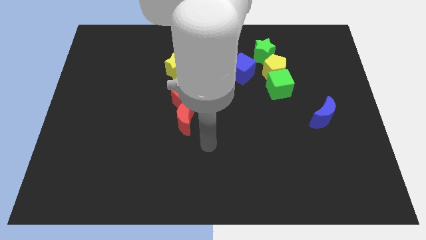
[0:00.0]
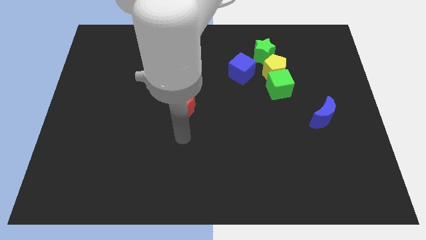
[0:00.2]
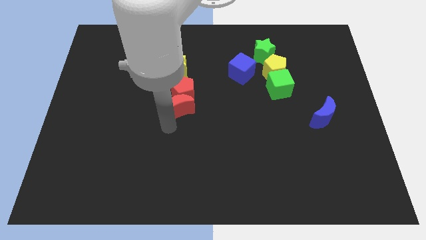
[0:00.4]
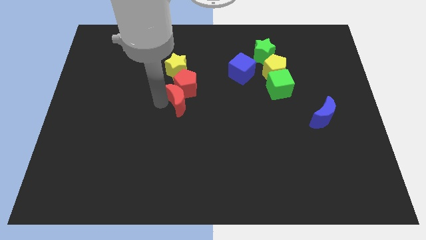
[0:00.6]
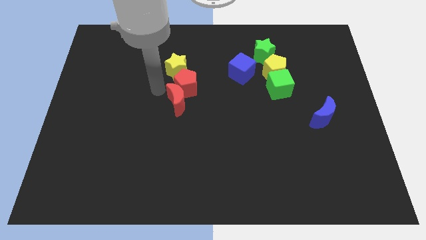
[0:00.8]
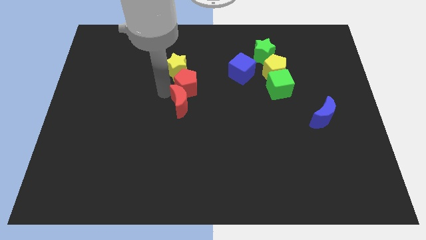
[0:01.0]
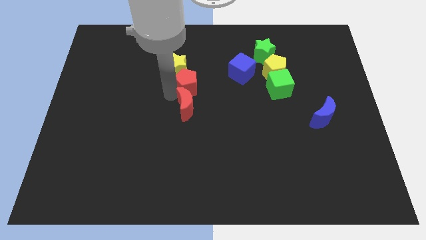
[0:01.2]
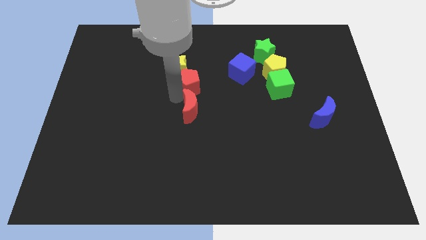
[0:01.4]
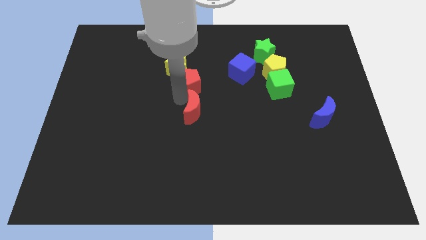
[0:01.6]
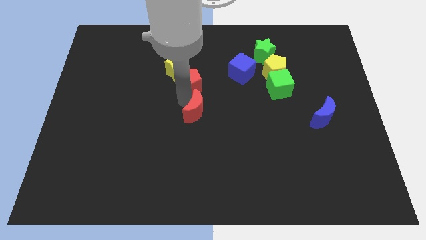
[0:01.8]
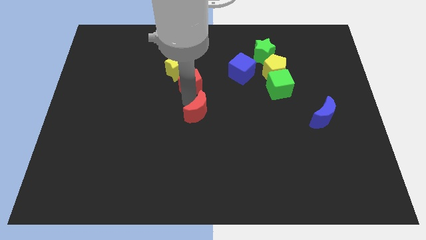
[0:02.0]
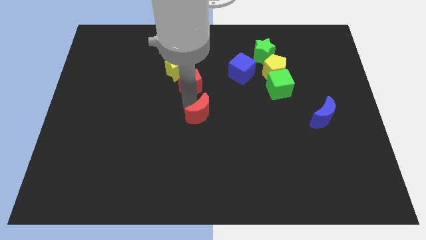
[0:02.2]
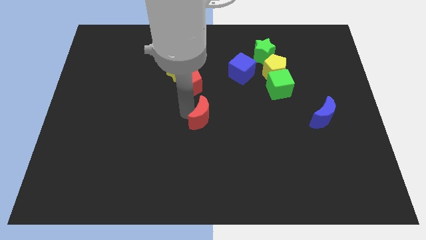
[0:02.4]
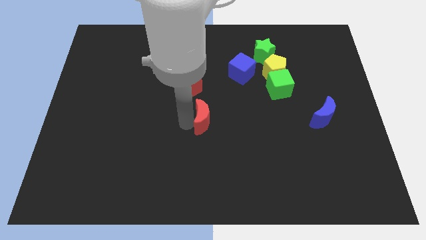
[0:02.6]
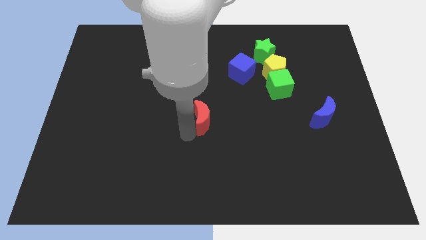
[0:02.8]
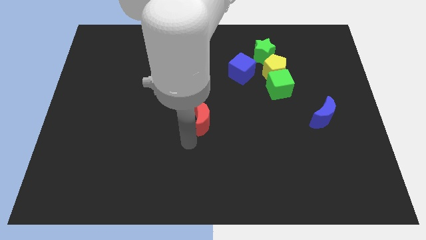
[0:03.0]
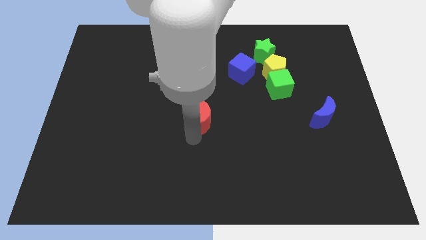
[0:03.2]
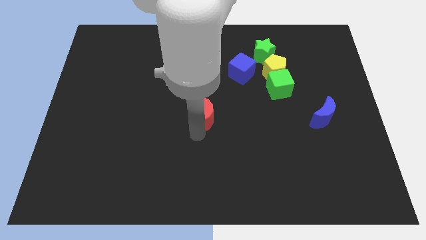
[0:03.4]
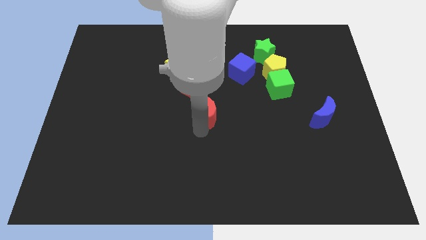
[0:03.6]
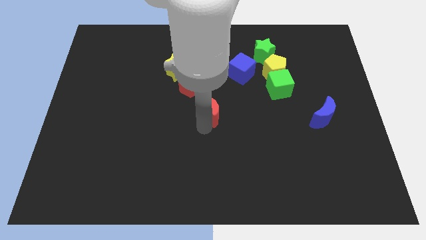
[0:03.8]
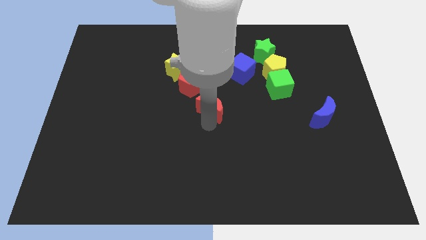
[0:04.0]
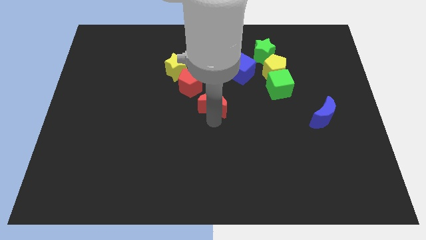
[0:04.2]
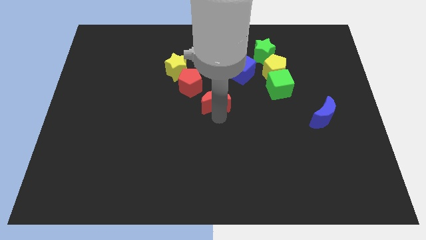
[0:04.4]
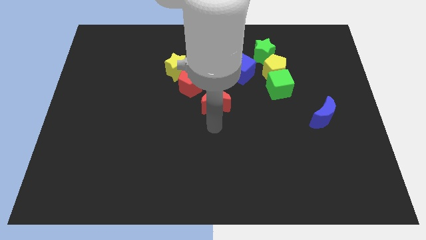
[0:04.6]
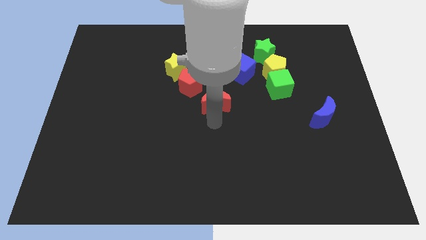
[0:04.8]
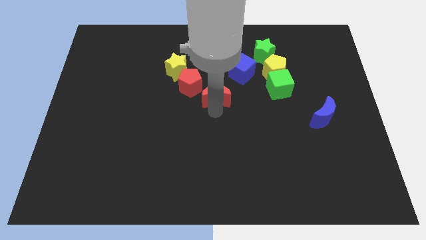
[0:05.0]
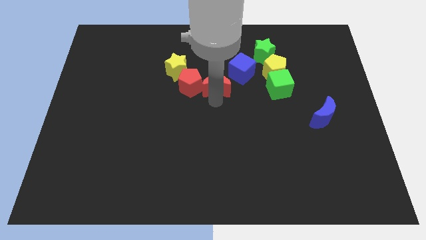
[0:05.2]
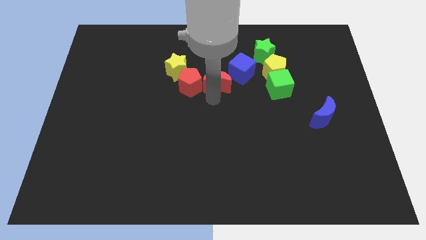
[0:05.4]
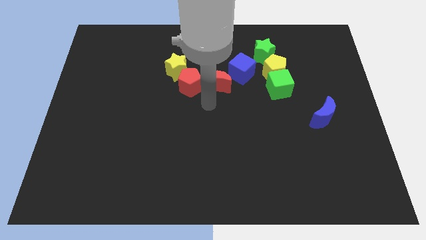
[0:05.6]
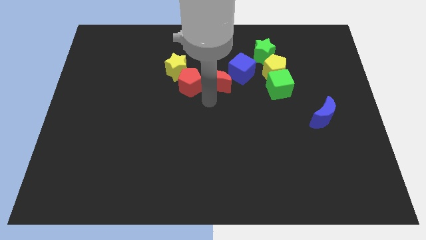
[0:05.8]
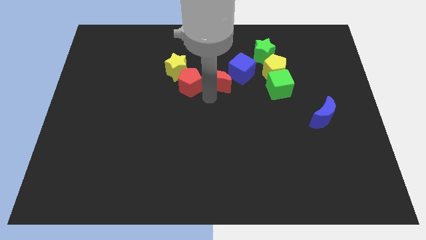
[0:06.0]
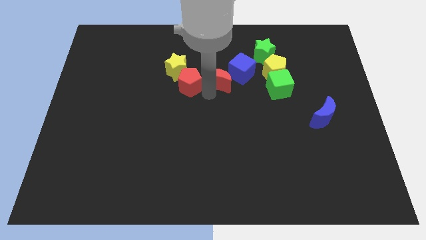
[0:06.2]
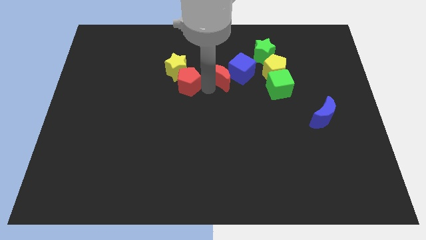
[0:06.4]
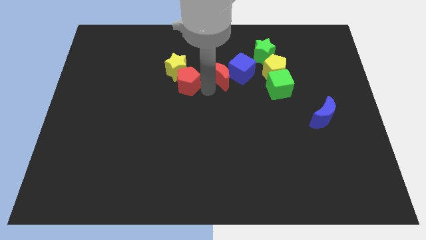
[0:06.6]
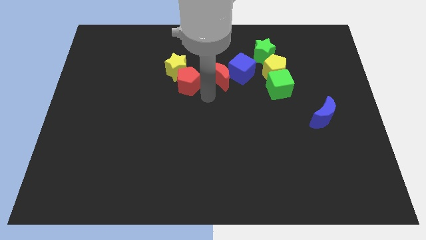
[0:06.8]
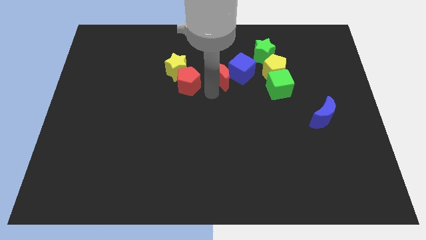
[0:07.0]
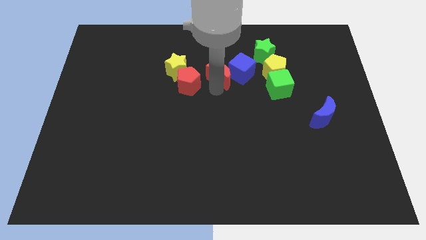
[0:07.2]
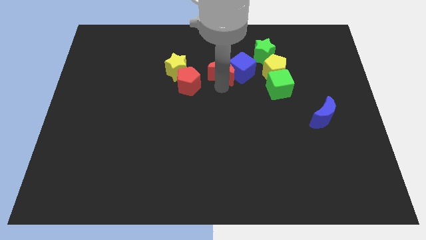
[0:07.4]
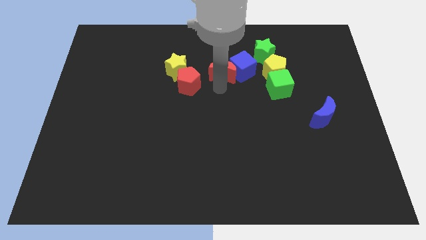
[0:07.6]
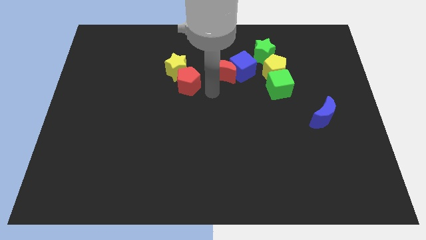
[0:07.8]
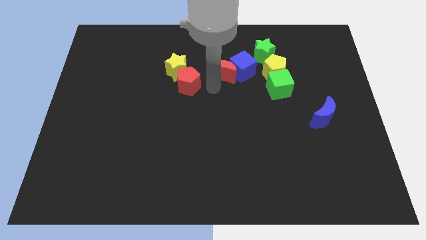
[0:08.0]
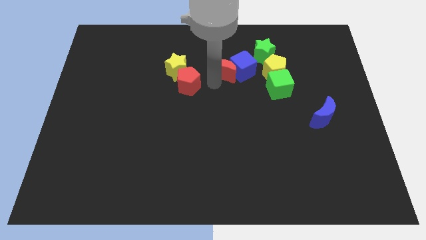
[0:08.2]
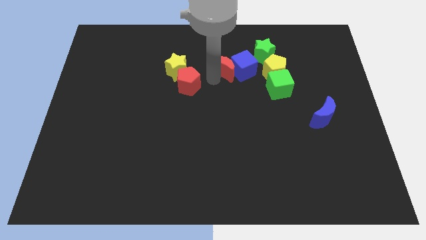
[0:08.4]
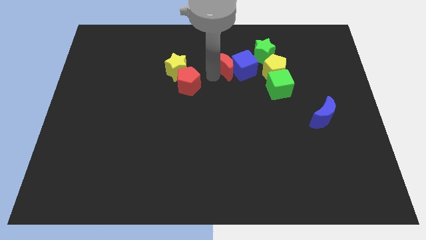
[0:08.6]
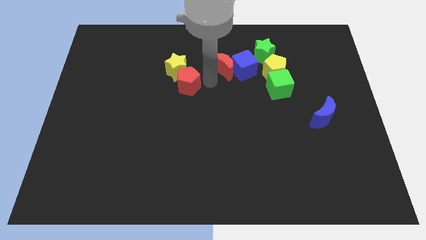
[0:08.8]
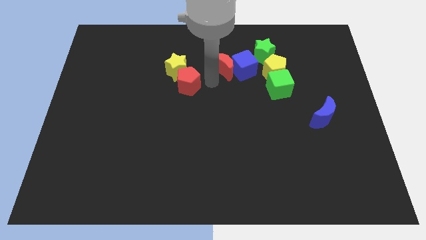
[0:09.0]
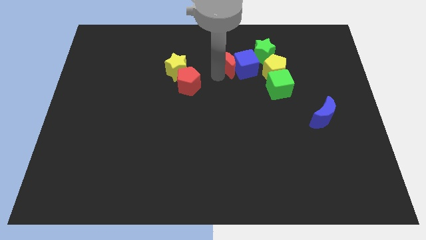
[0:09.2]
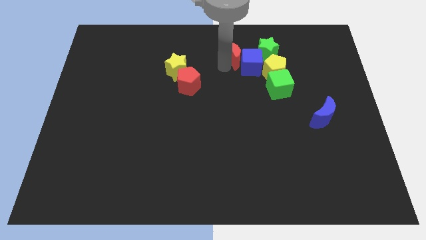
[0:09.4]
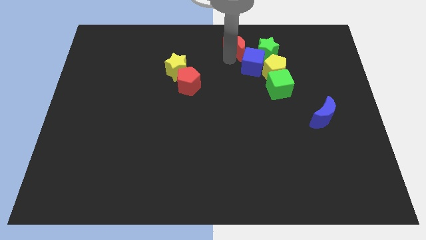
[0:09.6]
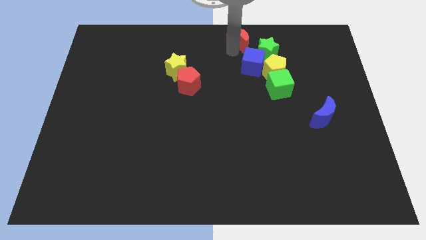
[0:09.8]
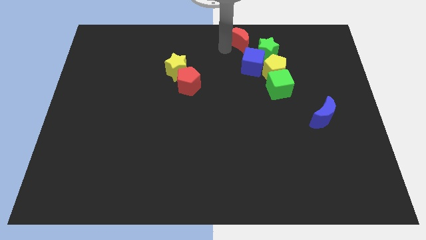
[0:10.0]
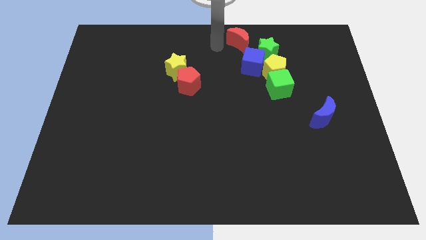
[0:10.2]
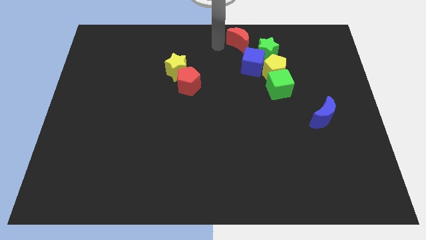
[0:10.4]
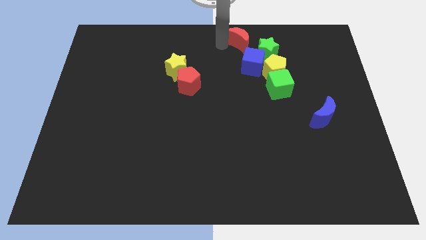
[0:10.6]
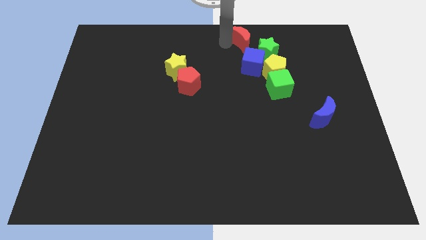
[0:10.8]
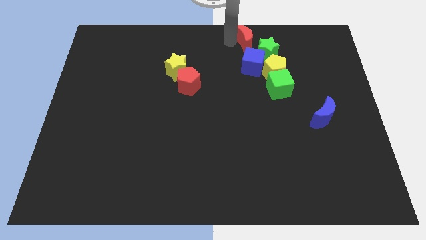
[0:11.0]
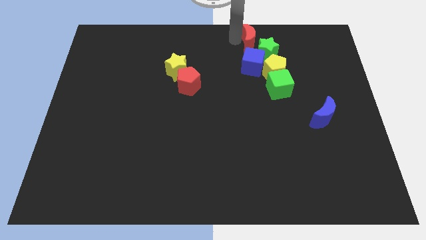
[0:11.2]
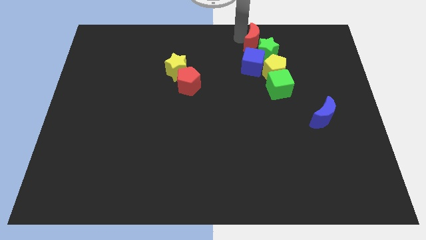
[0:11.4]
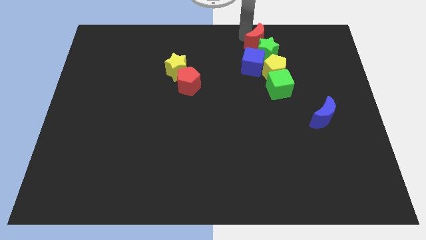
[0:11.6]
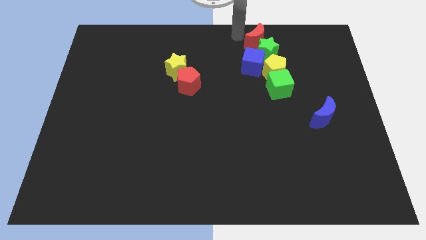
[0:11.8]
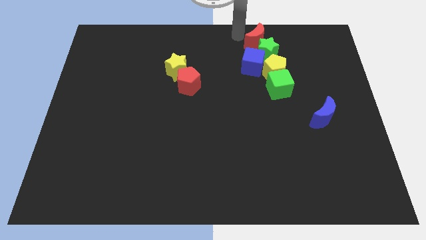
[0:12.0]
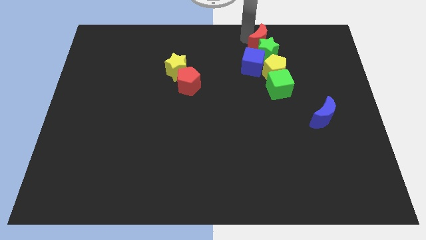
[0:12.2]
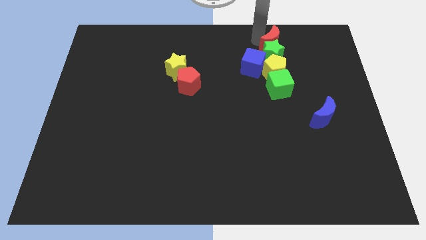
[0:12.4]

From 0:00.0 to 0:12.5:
move the red moon to the top side of the green cube

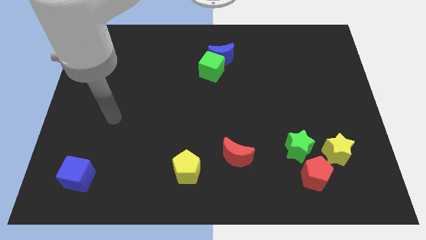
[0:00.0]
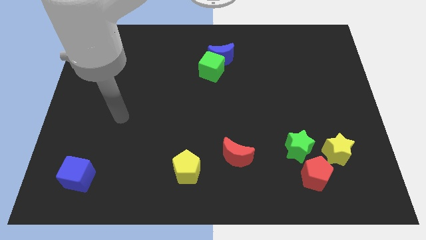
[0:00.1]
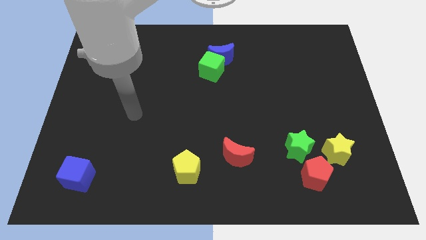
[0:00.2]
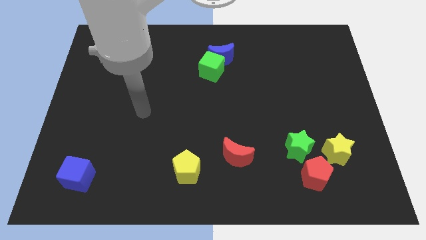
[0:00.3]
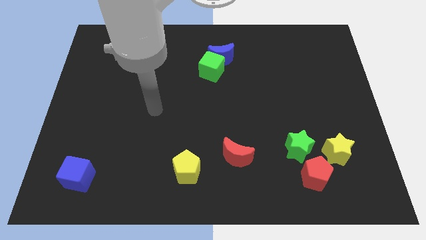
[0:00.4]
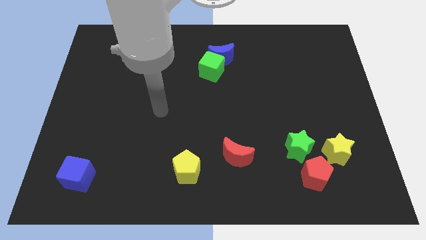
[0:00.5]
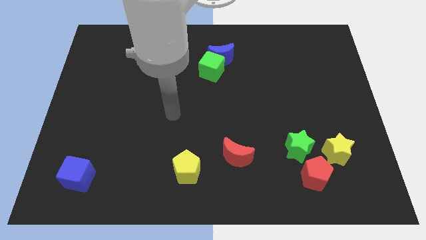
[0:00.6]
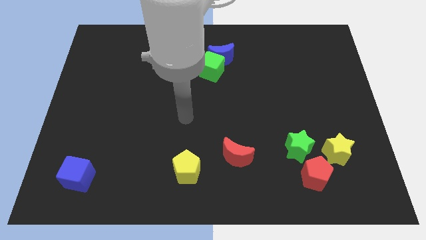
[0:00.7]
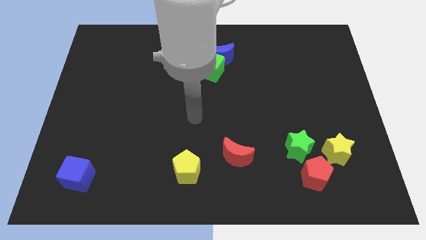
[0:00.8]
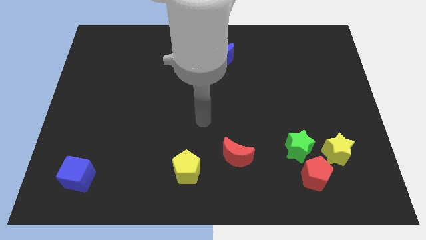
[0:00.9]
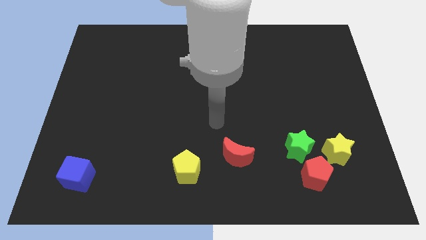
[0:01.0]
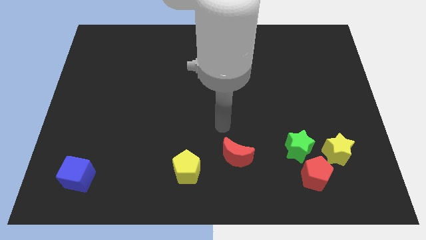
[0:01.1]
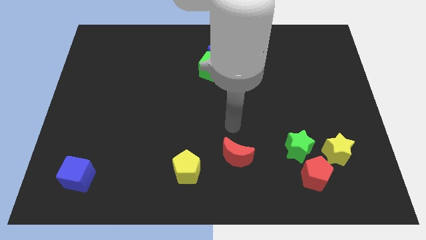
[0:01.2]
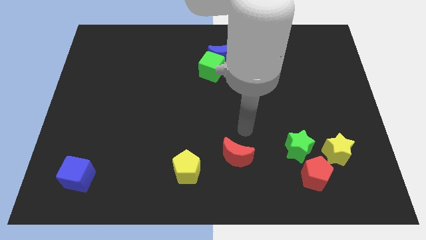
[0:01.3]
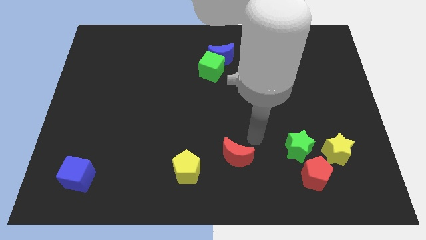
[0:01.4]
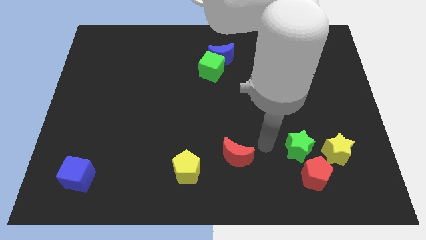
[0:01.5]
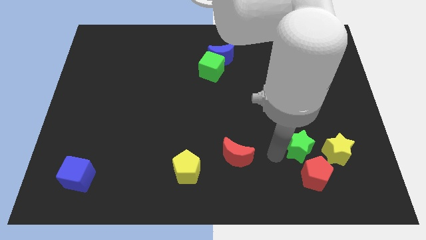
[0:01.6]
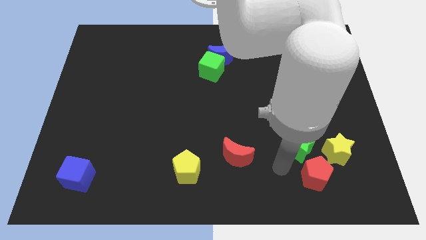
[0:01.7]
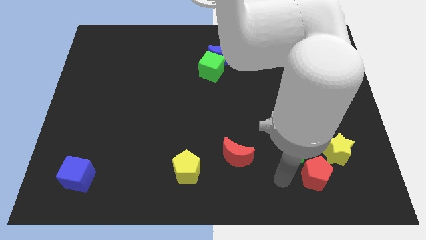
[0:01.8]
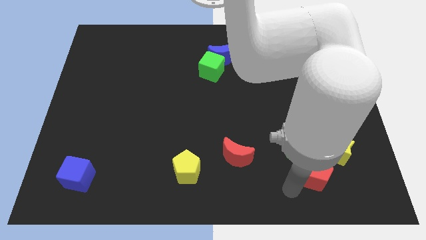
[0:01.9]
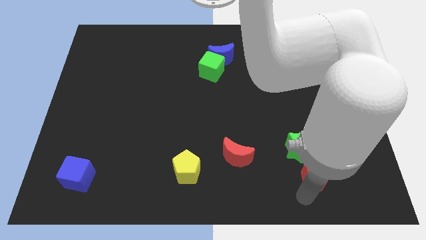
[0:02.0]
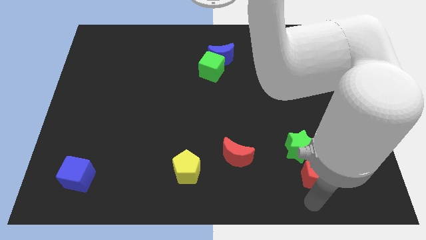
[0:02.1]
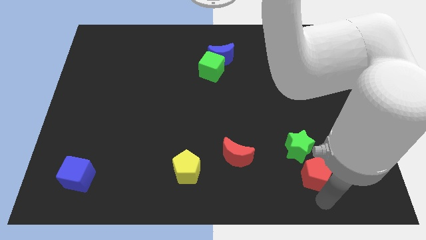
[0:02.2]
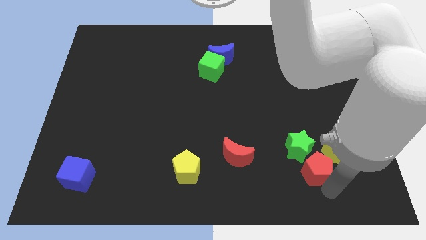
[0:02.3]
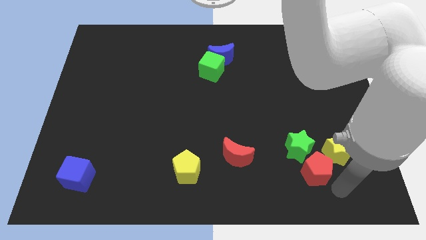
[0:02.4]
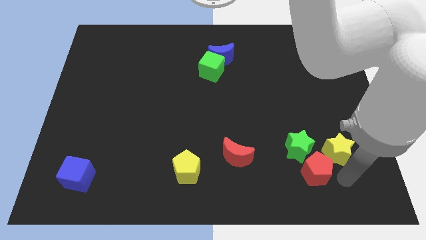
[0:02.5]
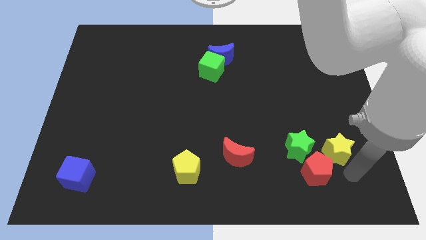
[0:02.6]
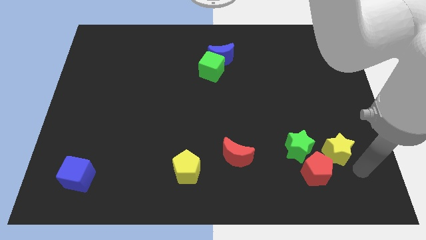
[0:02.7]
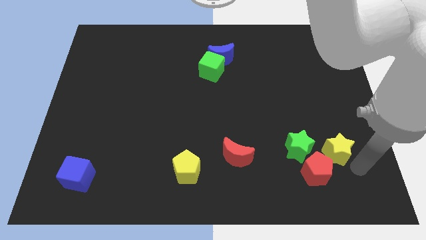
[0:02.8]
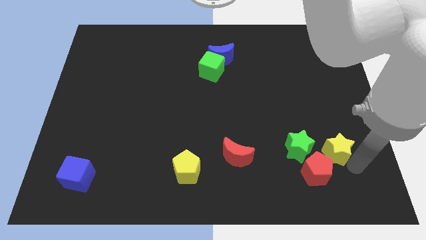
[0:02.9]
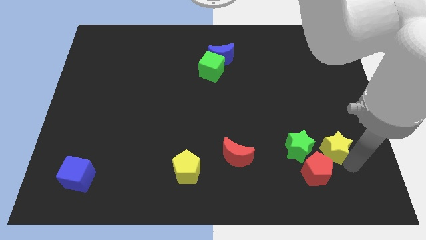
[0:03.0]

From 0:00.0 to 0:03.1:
put the yellow star to the top side of the red pentagon
